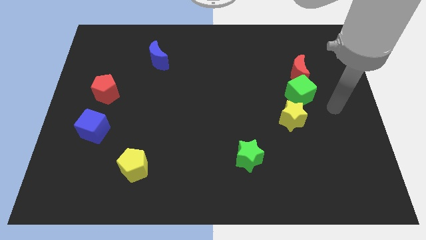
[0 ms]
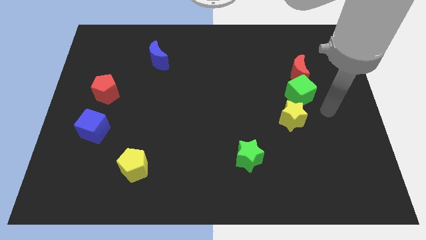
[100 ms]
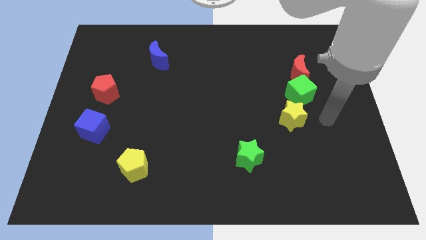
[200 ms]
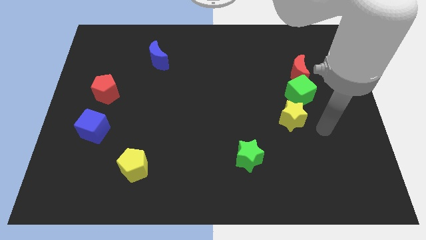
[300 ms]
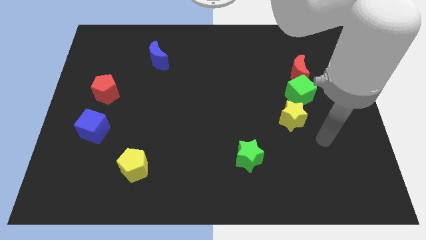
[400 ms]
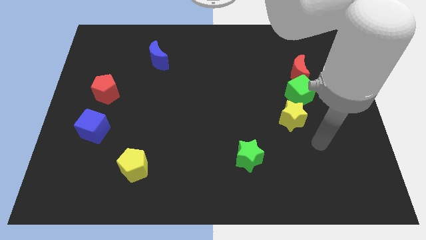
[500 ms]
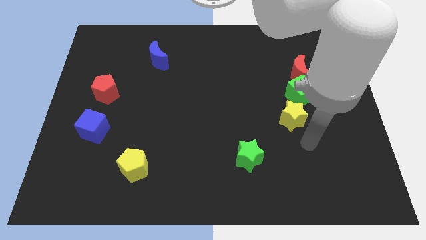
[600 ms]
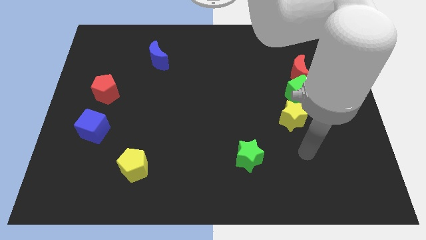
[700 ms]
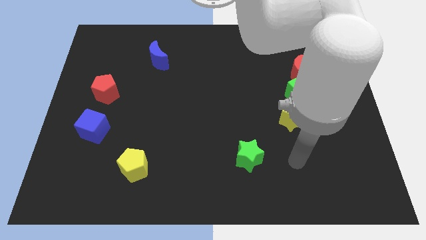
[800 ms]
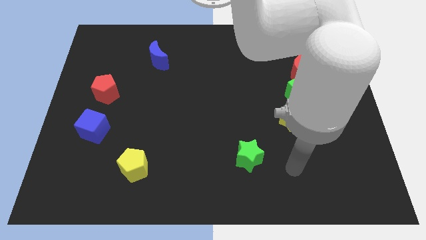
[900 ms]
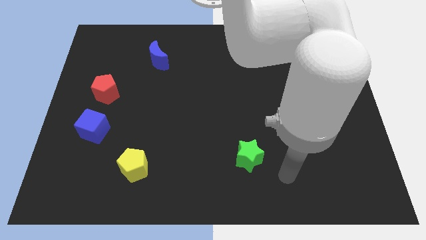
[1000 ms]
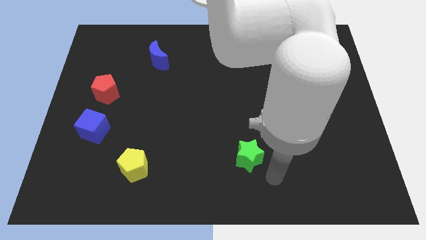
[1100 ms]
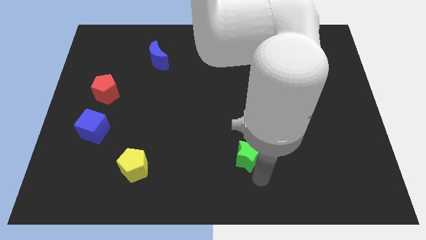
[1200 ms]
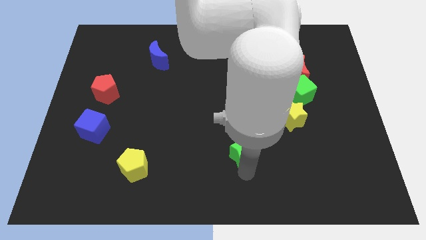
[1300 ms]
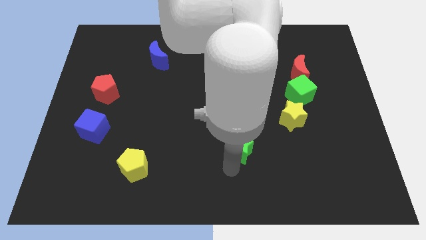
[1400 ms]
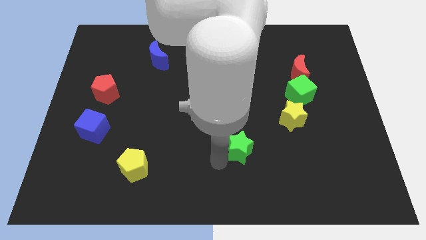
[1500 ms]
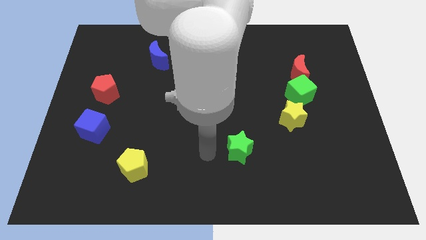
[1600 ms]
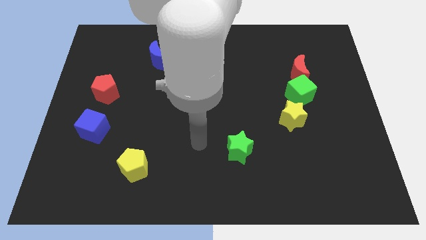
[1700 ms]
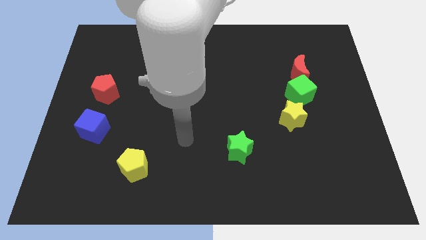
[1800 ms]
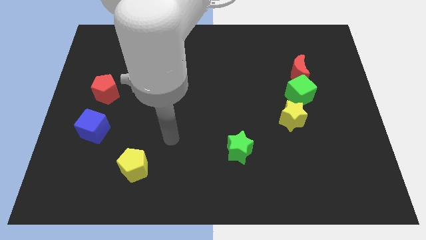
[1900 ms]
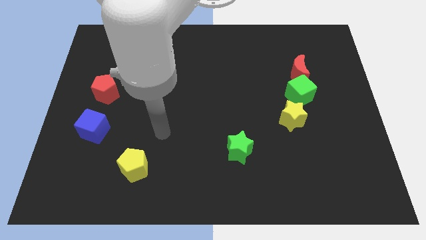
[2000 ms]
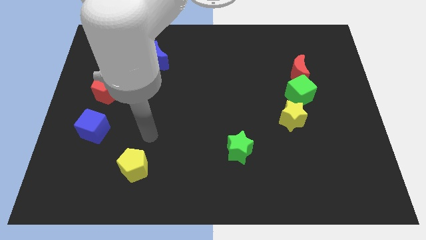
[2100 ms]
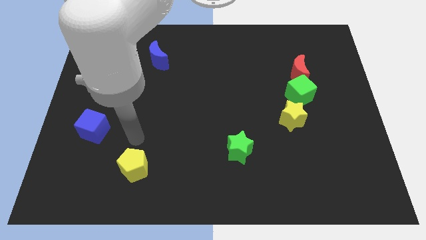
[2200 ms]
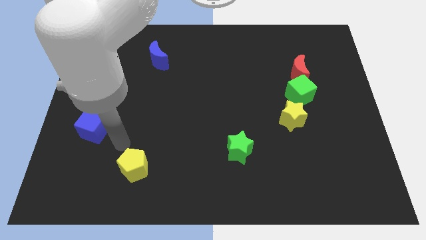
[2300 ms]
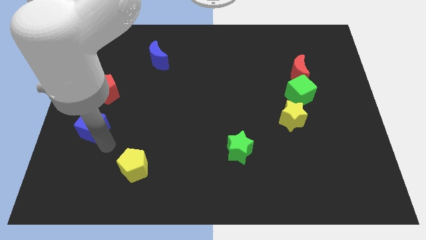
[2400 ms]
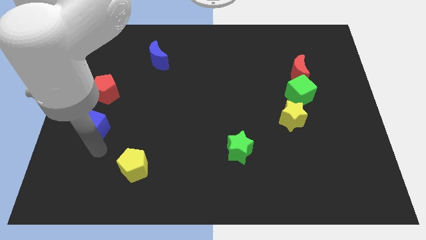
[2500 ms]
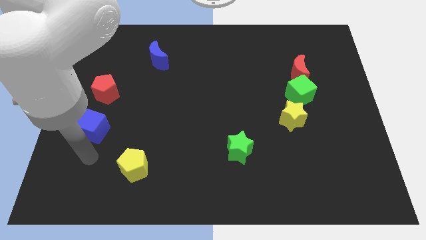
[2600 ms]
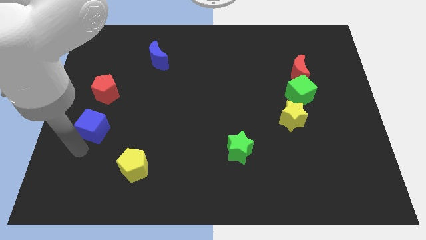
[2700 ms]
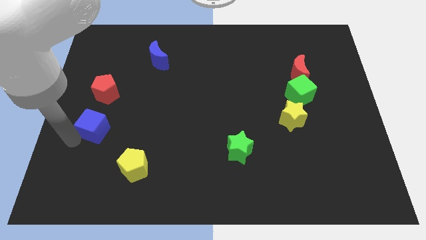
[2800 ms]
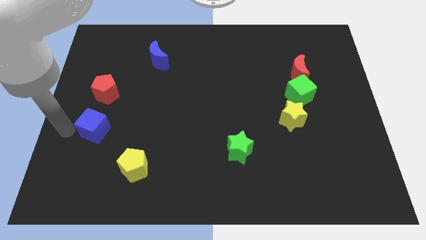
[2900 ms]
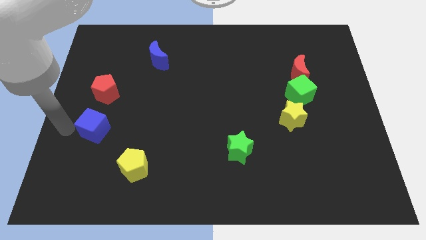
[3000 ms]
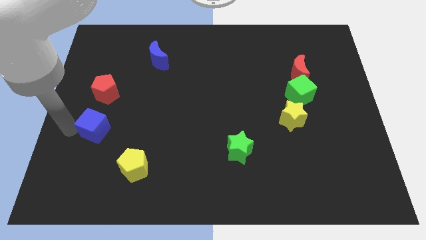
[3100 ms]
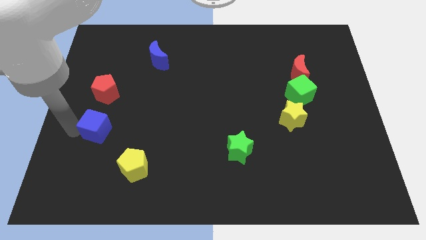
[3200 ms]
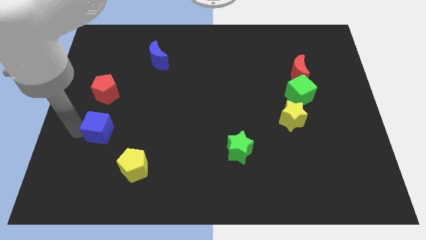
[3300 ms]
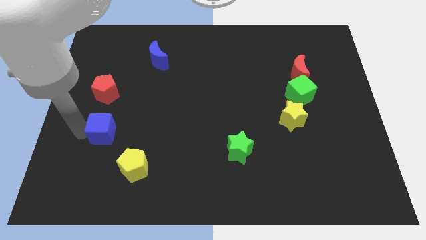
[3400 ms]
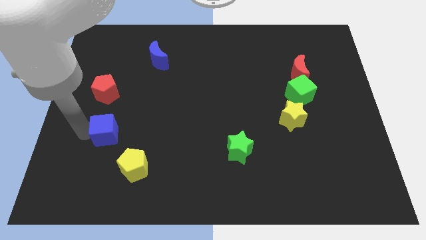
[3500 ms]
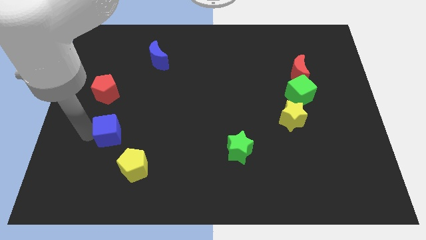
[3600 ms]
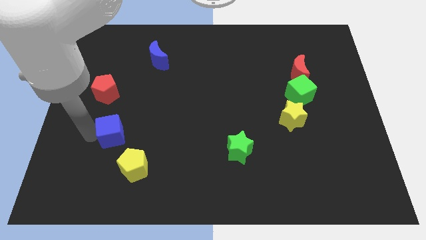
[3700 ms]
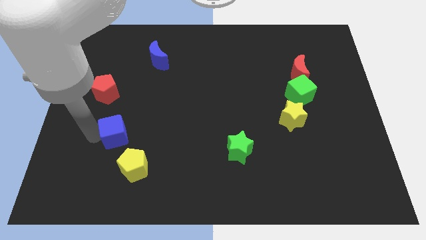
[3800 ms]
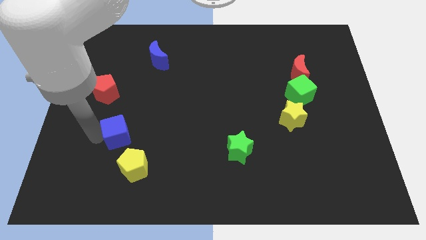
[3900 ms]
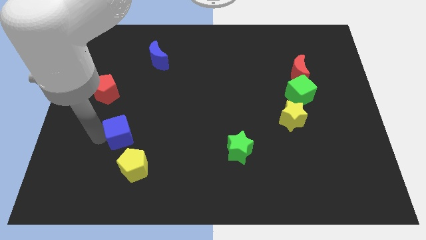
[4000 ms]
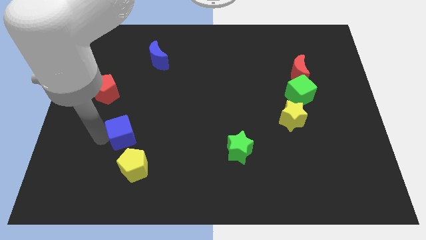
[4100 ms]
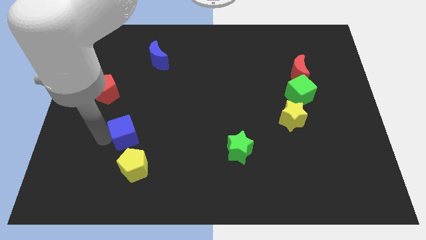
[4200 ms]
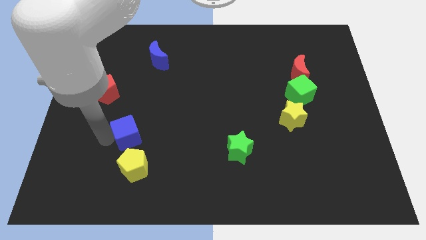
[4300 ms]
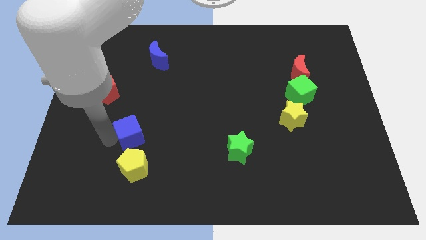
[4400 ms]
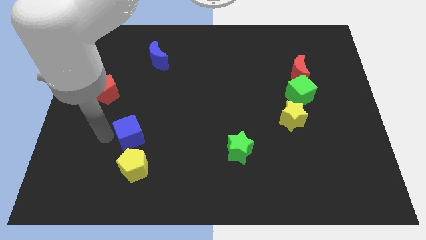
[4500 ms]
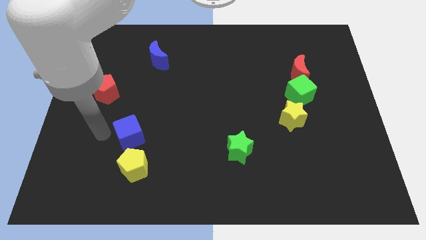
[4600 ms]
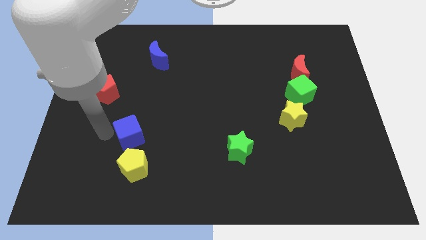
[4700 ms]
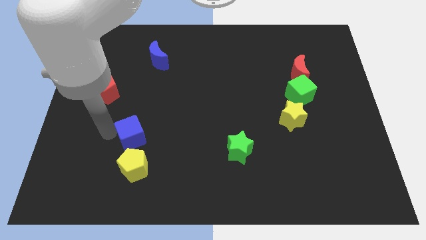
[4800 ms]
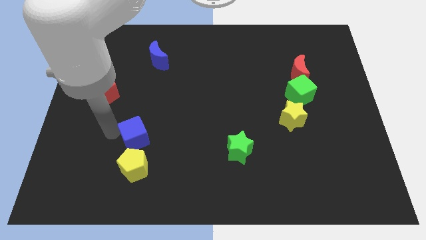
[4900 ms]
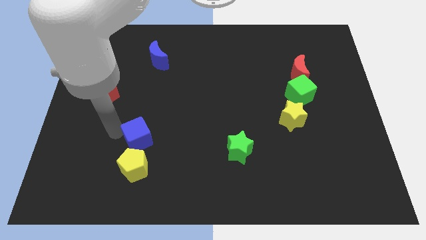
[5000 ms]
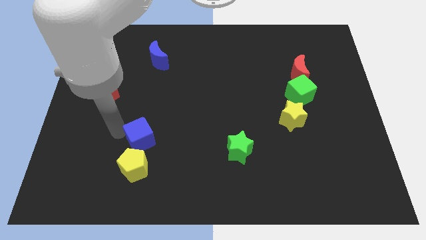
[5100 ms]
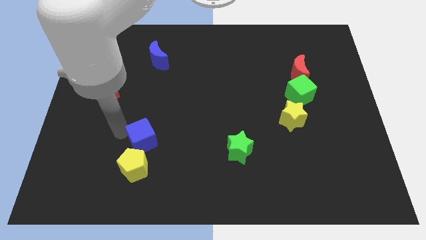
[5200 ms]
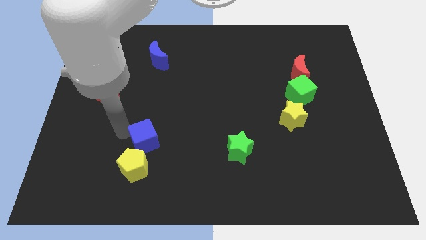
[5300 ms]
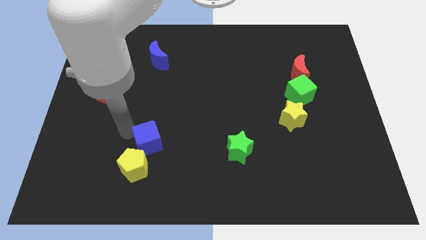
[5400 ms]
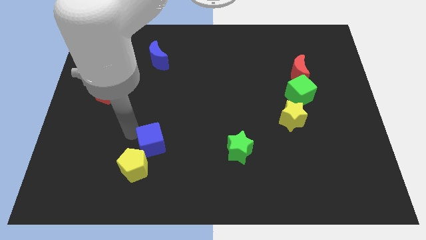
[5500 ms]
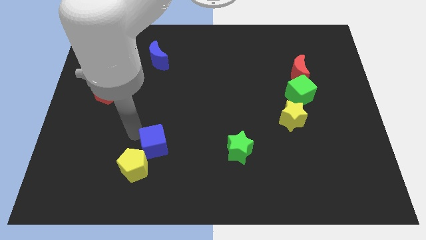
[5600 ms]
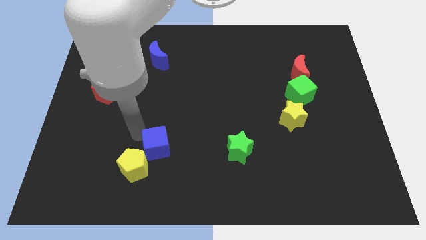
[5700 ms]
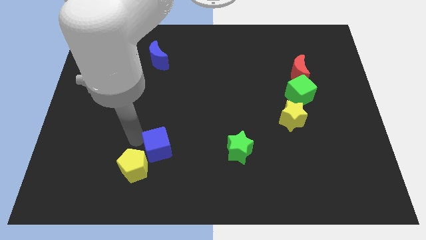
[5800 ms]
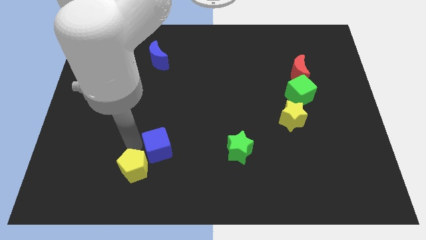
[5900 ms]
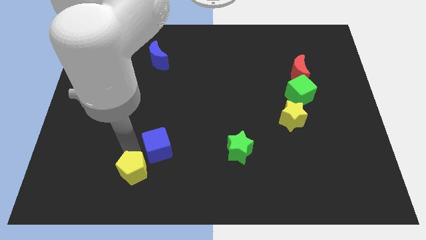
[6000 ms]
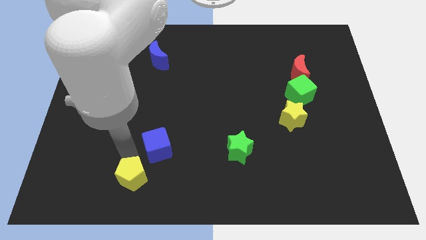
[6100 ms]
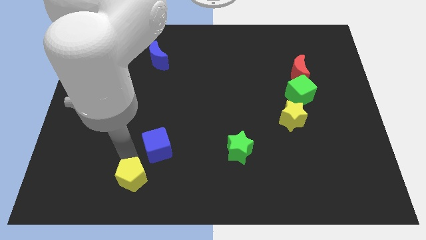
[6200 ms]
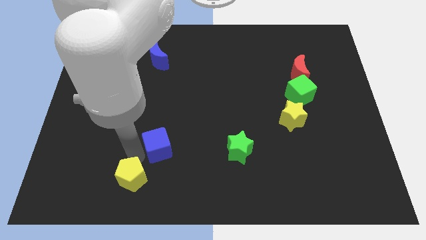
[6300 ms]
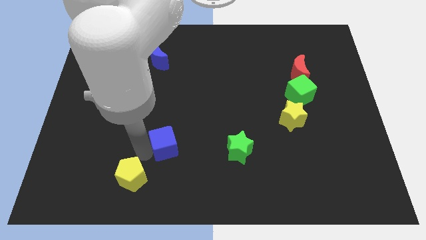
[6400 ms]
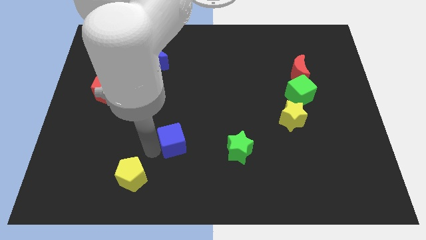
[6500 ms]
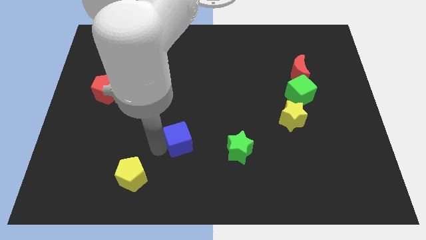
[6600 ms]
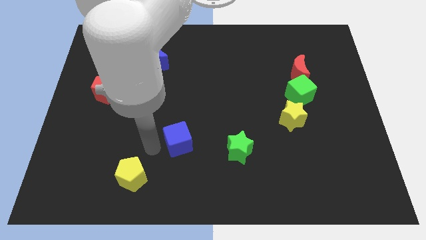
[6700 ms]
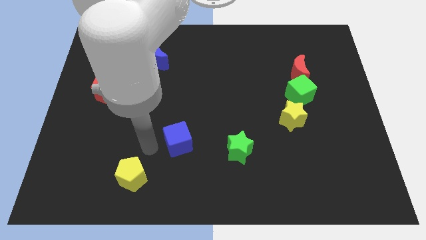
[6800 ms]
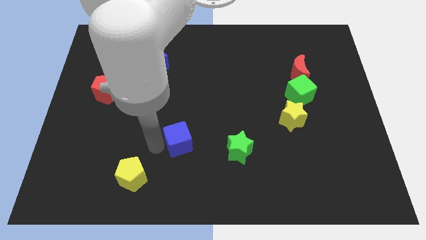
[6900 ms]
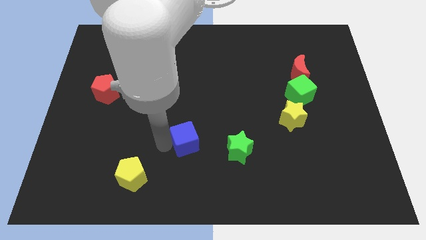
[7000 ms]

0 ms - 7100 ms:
slide the blue cube to the right

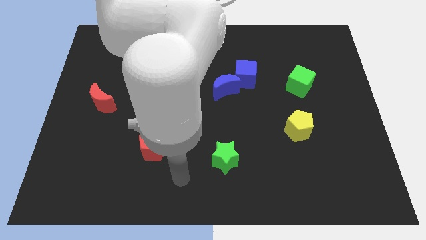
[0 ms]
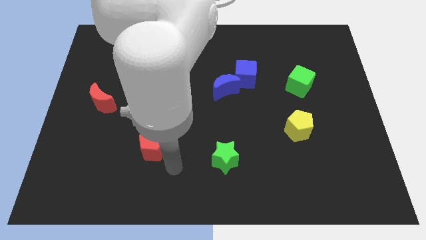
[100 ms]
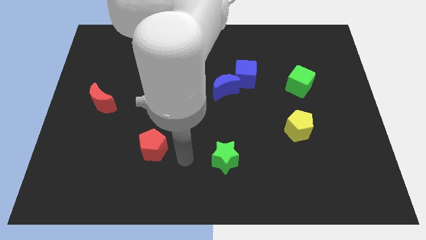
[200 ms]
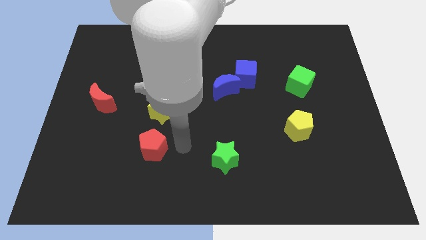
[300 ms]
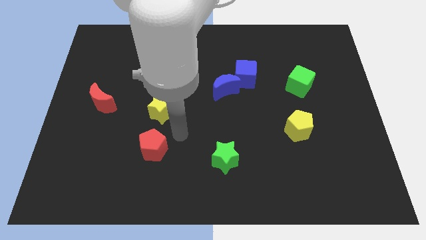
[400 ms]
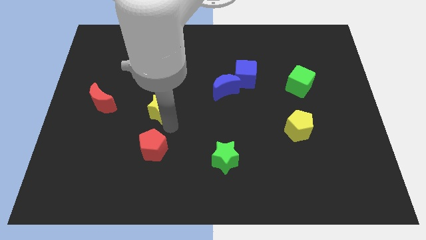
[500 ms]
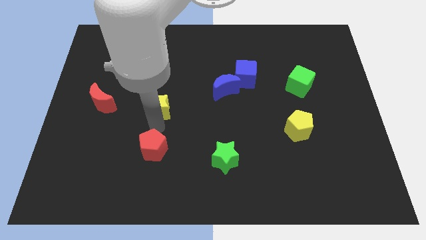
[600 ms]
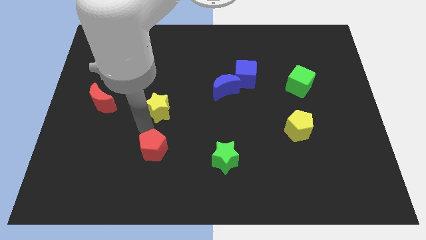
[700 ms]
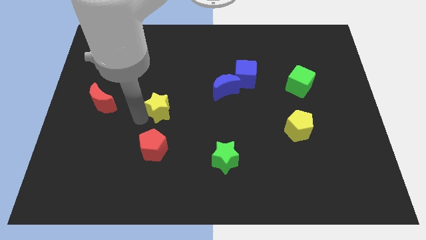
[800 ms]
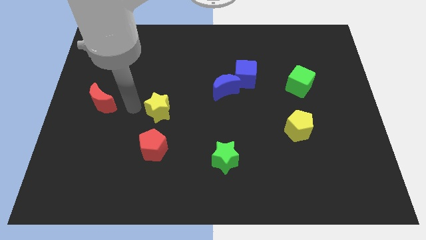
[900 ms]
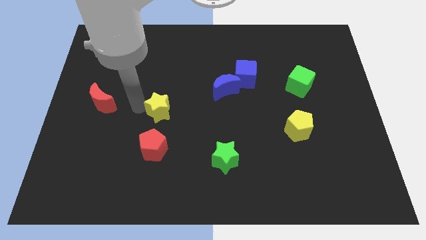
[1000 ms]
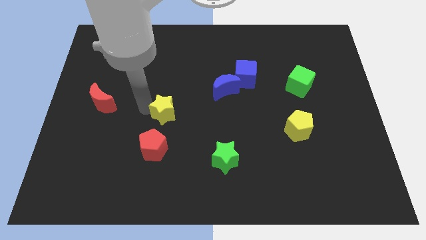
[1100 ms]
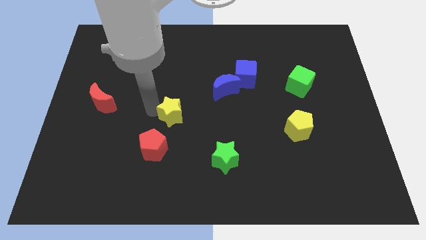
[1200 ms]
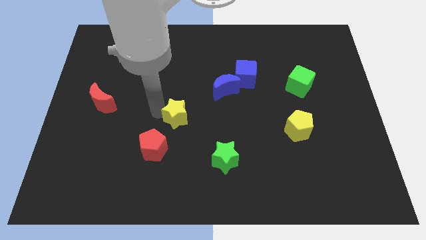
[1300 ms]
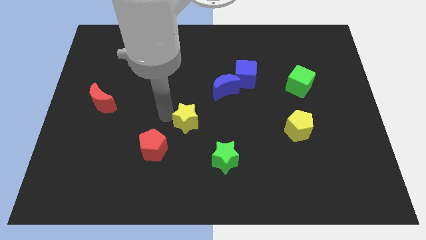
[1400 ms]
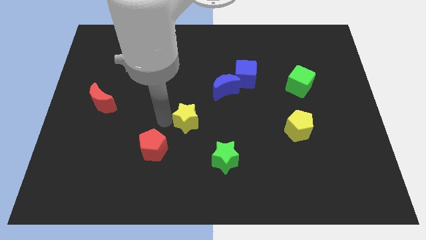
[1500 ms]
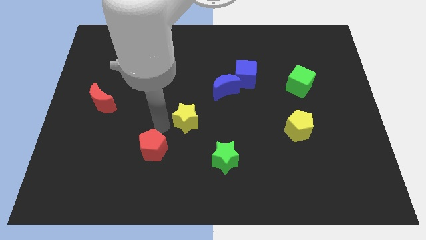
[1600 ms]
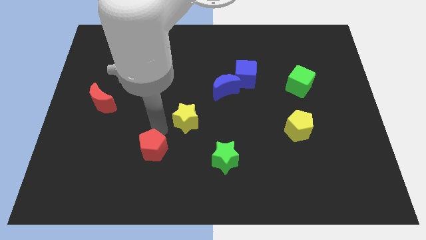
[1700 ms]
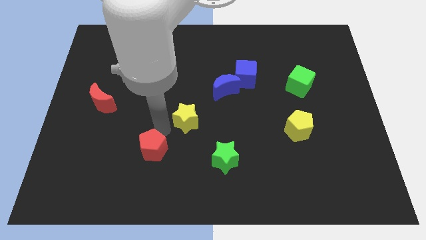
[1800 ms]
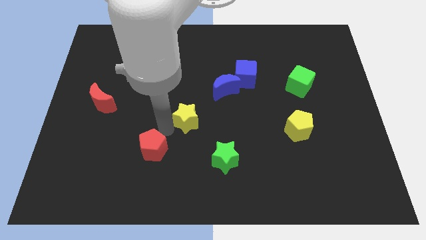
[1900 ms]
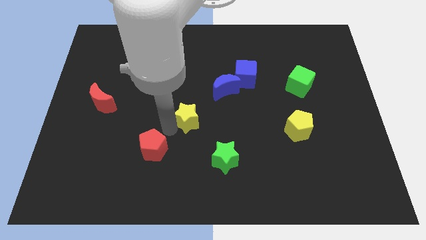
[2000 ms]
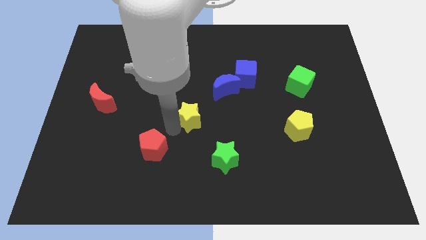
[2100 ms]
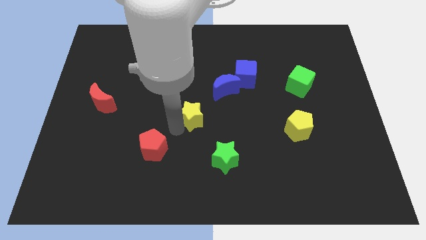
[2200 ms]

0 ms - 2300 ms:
slide the yellow star a bit right
